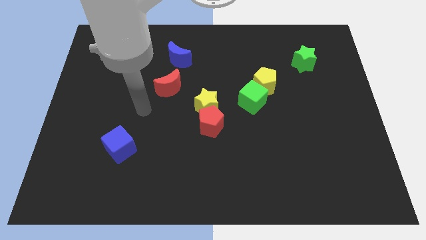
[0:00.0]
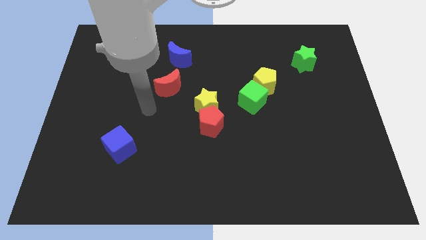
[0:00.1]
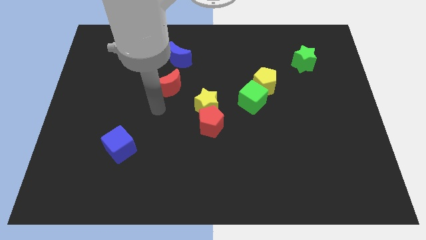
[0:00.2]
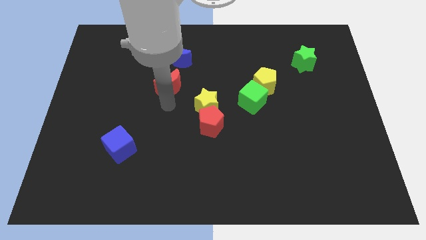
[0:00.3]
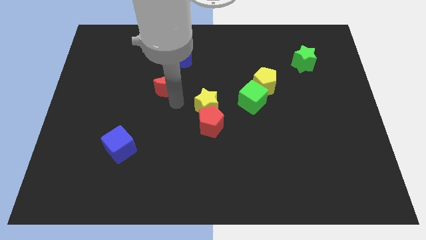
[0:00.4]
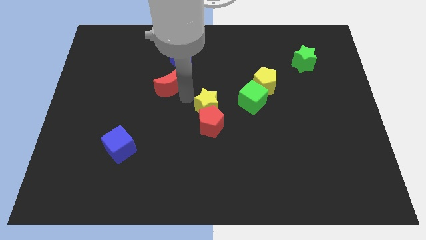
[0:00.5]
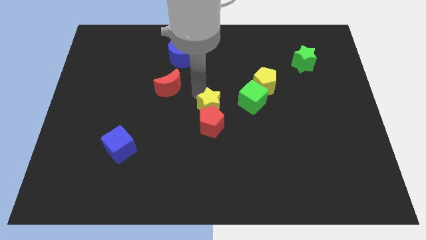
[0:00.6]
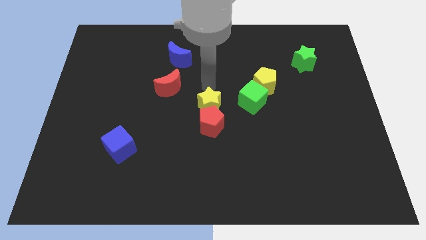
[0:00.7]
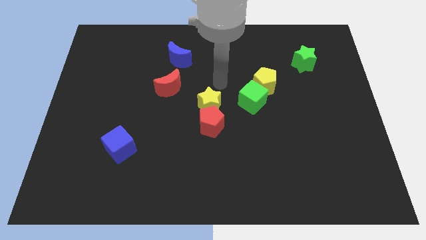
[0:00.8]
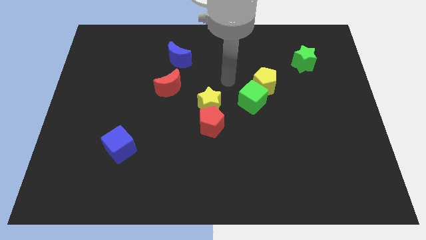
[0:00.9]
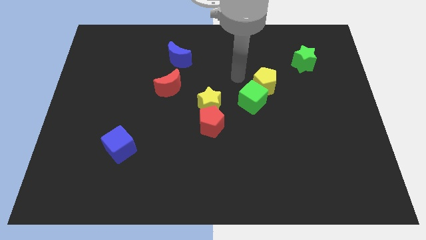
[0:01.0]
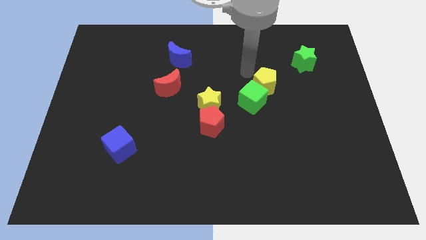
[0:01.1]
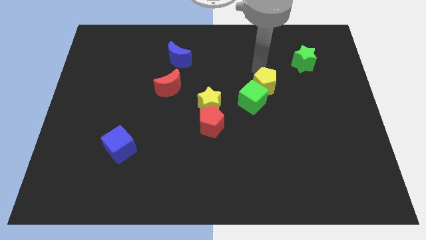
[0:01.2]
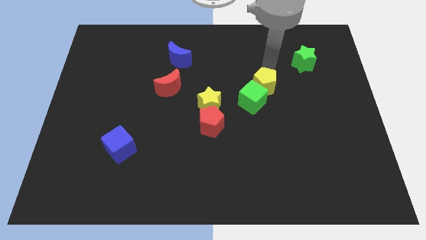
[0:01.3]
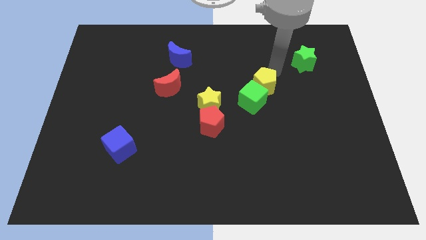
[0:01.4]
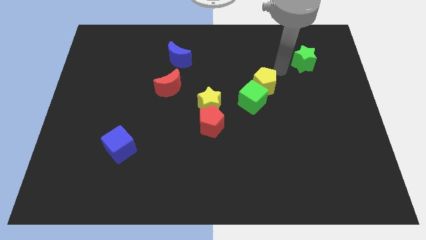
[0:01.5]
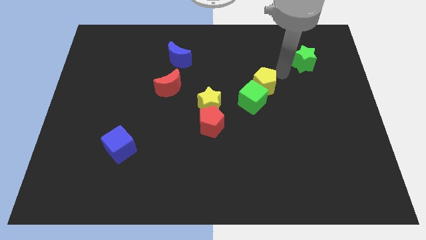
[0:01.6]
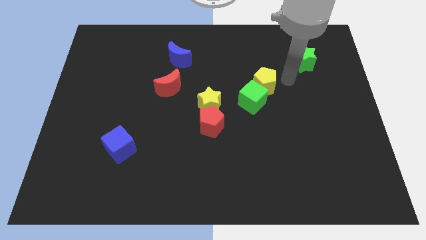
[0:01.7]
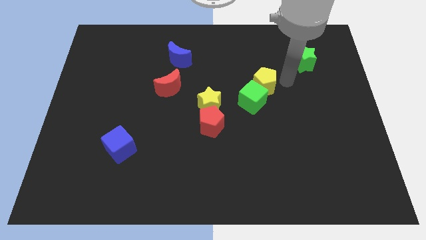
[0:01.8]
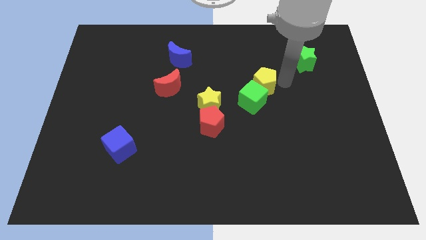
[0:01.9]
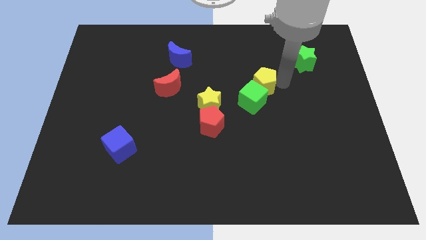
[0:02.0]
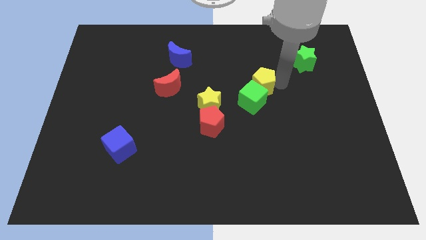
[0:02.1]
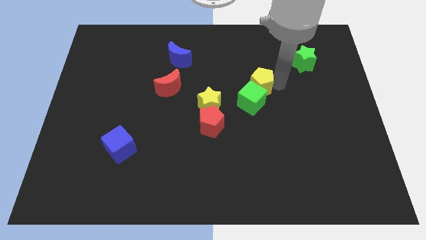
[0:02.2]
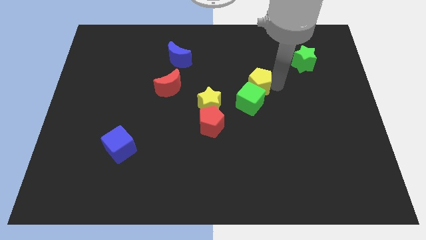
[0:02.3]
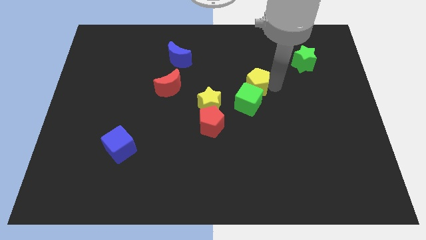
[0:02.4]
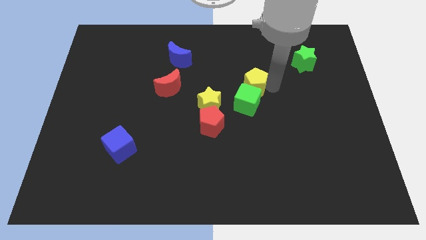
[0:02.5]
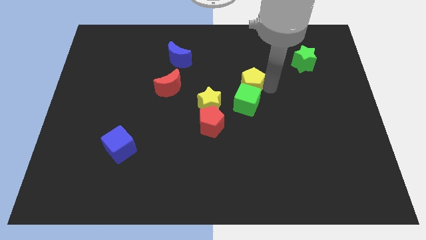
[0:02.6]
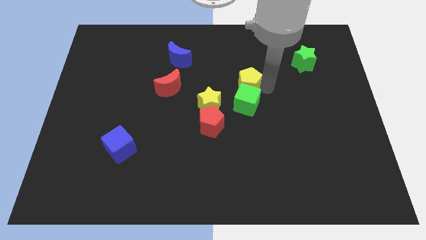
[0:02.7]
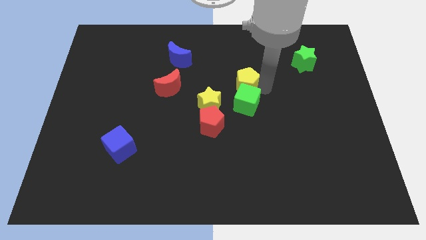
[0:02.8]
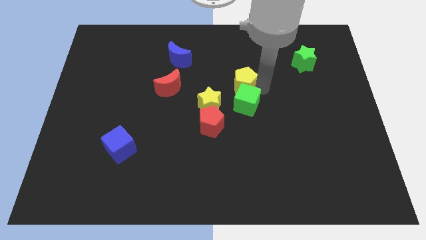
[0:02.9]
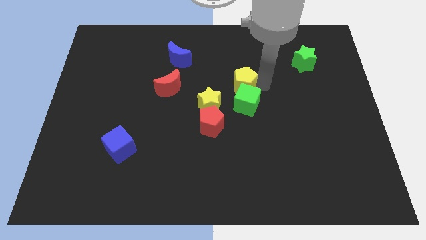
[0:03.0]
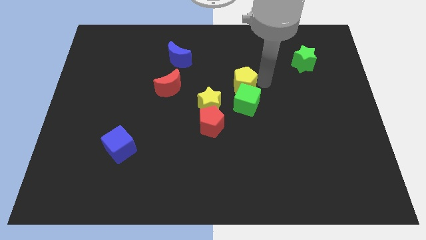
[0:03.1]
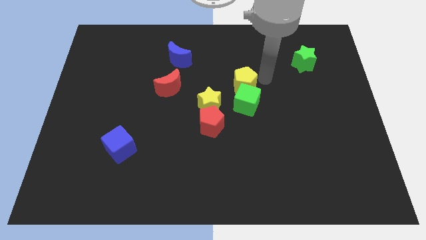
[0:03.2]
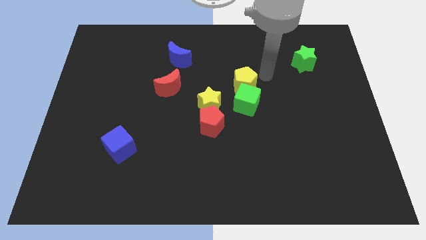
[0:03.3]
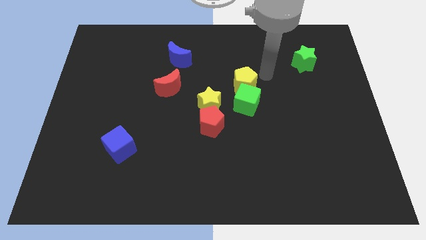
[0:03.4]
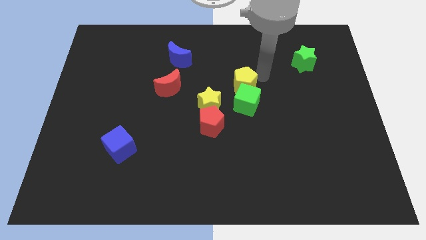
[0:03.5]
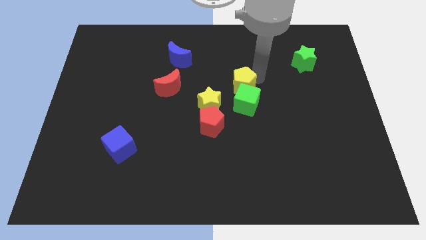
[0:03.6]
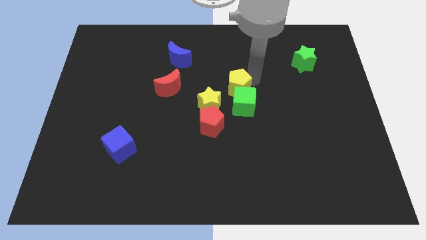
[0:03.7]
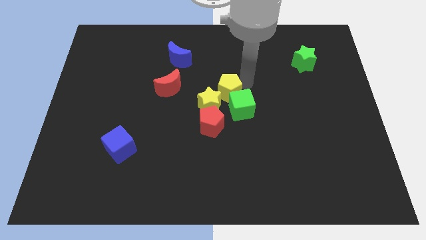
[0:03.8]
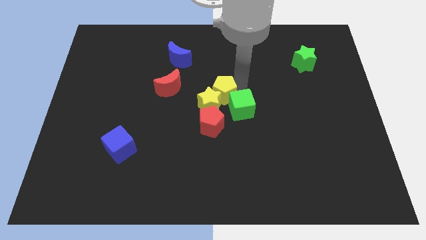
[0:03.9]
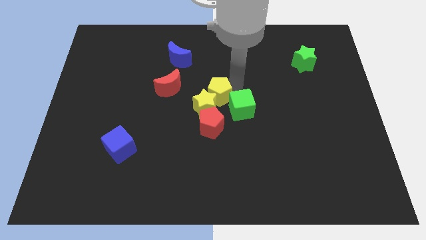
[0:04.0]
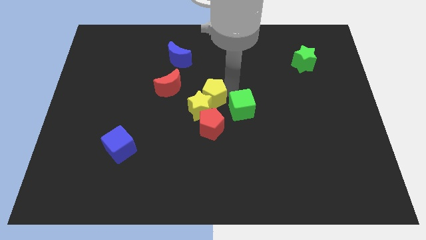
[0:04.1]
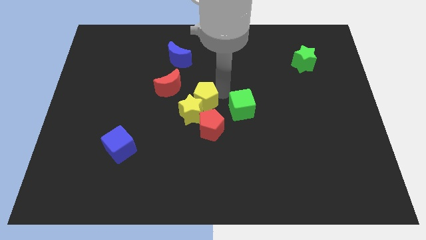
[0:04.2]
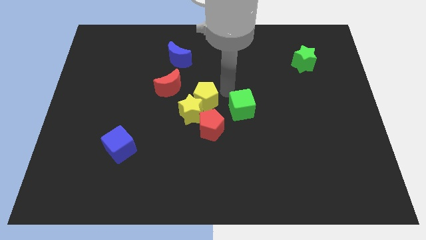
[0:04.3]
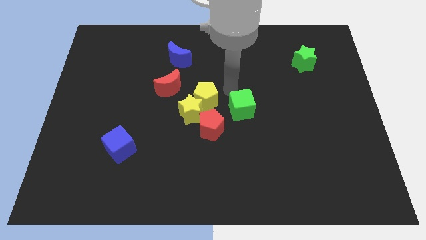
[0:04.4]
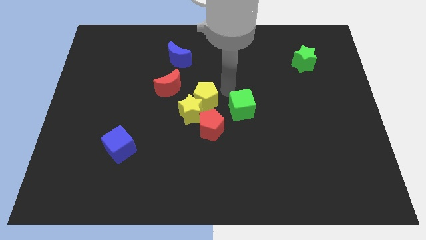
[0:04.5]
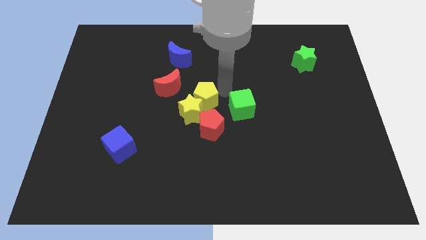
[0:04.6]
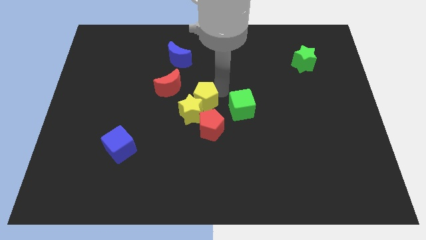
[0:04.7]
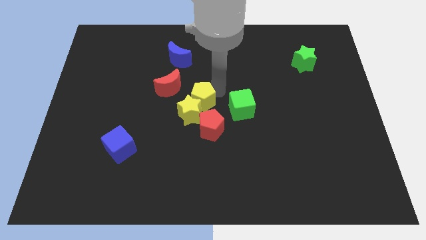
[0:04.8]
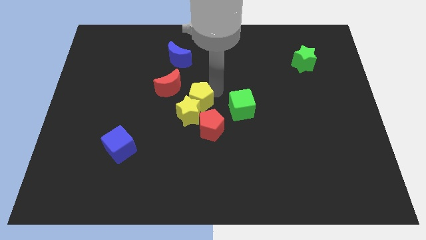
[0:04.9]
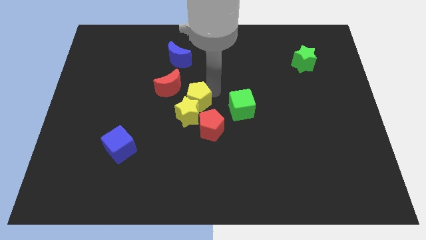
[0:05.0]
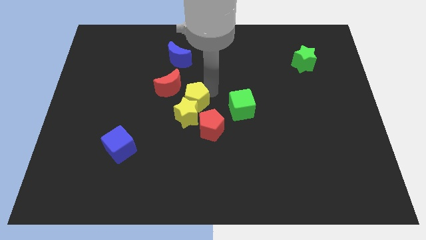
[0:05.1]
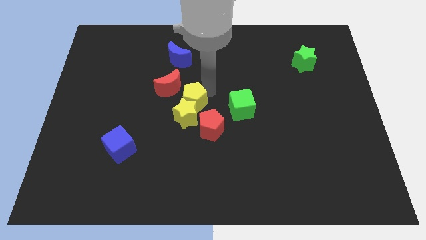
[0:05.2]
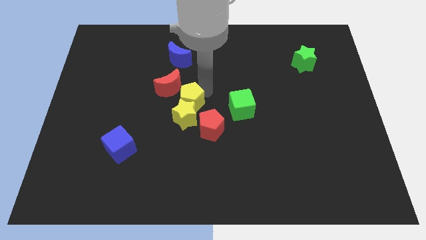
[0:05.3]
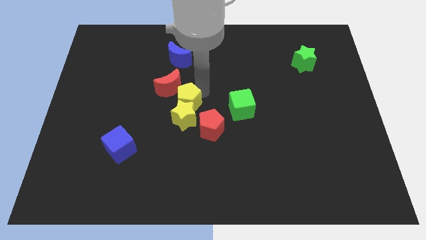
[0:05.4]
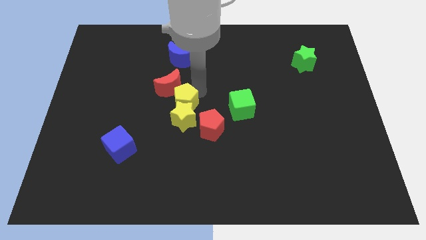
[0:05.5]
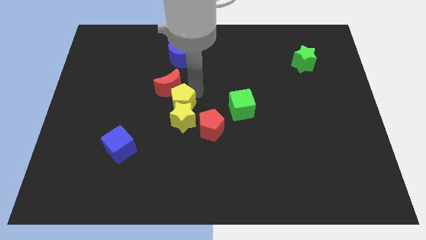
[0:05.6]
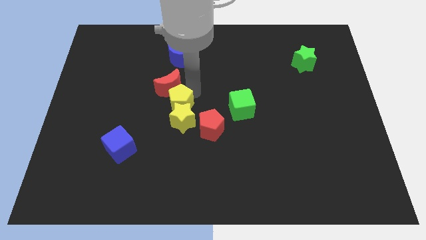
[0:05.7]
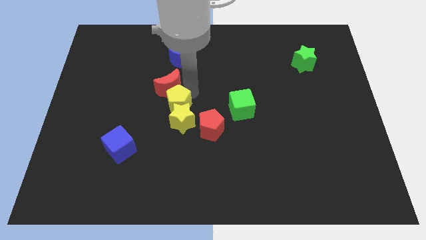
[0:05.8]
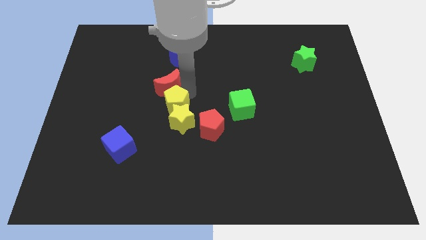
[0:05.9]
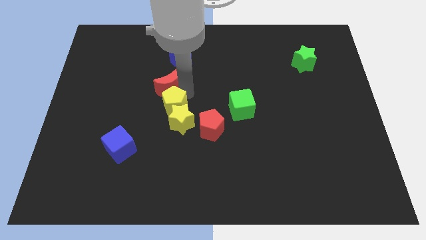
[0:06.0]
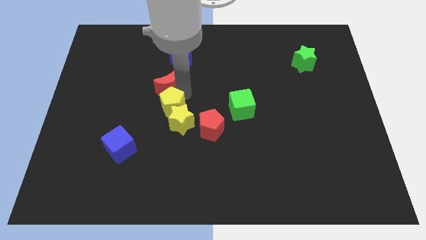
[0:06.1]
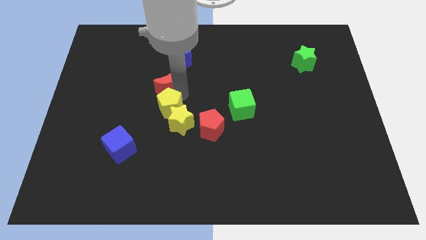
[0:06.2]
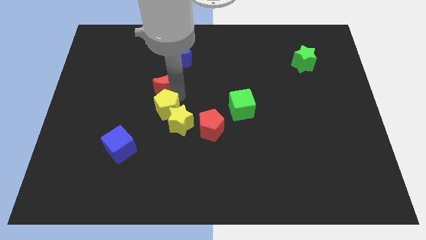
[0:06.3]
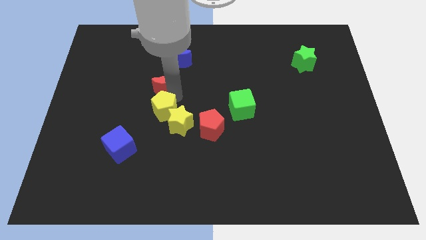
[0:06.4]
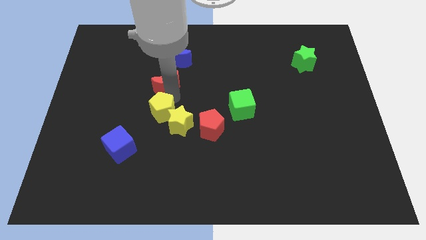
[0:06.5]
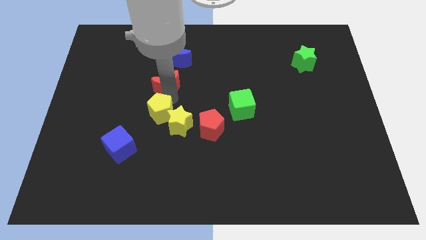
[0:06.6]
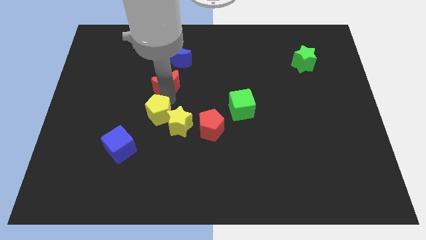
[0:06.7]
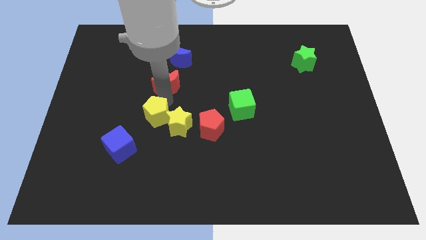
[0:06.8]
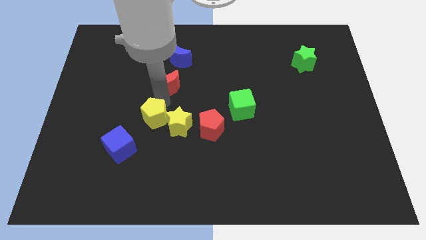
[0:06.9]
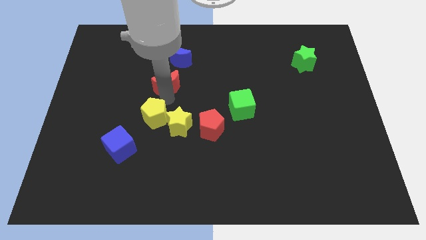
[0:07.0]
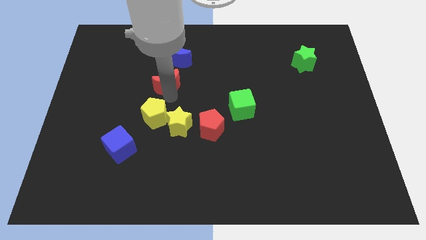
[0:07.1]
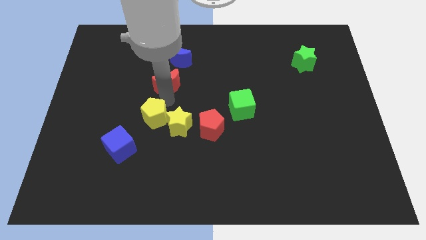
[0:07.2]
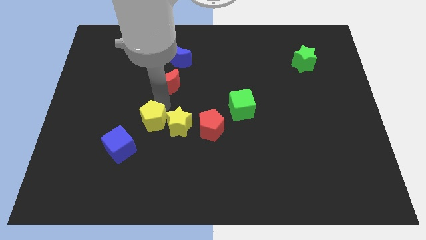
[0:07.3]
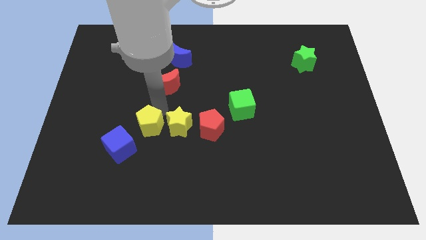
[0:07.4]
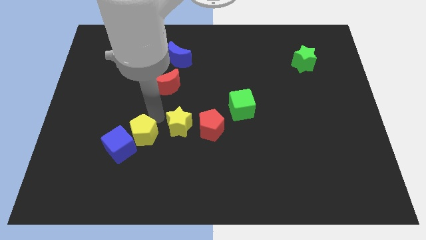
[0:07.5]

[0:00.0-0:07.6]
move the yellow pentagon to the blue cube

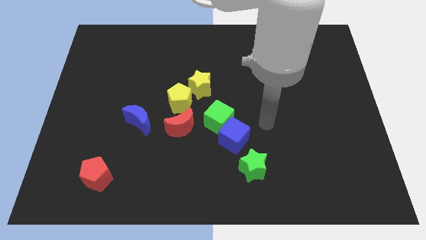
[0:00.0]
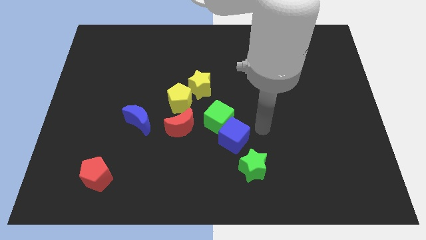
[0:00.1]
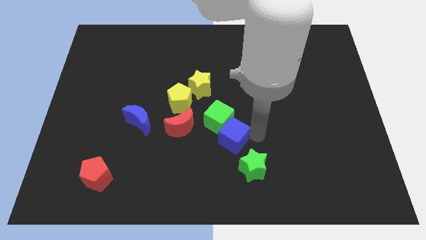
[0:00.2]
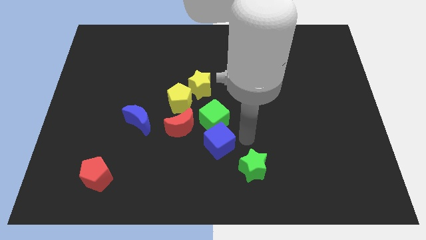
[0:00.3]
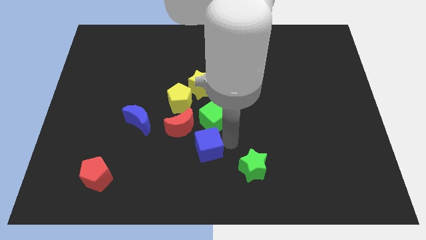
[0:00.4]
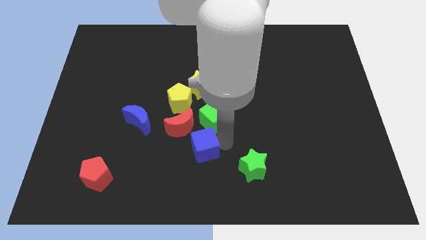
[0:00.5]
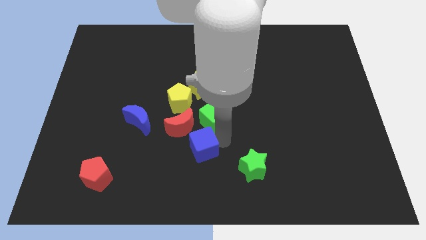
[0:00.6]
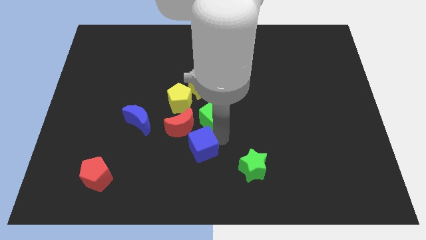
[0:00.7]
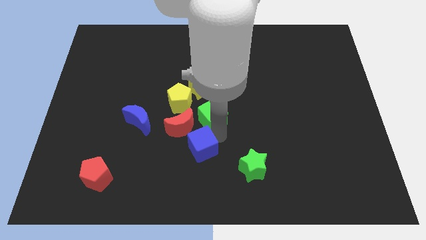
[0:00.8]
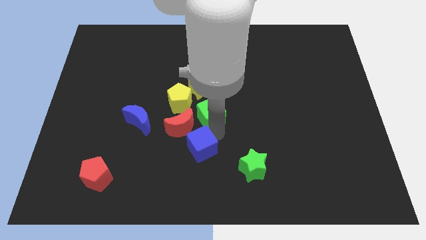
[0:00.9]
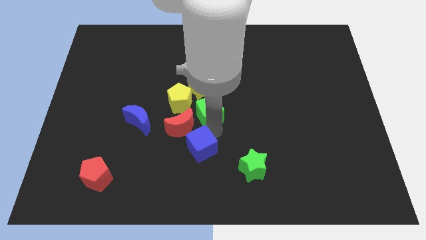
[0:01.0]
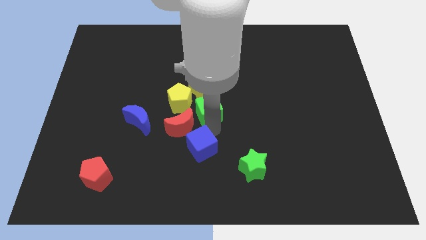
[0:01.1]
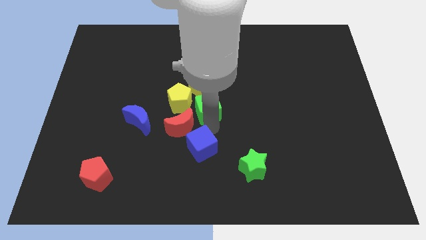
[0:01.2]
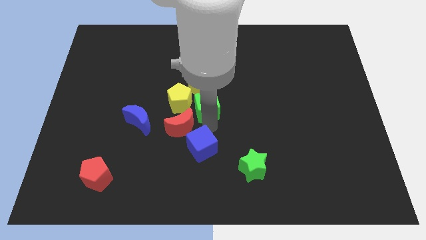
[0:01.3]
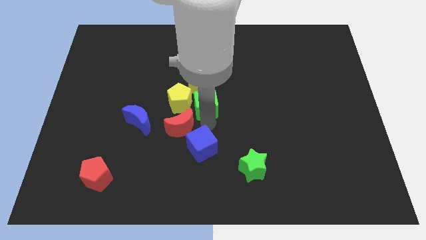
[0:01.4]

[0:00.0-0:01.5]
slide the green cube to the yellow star
